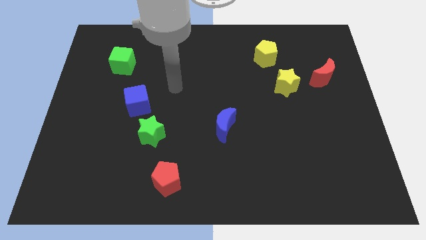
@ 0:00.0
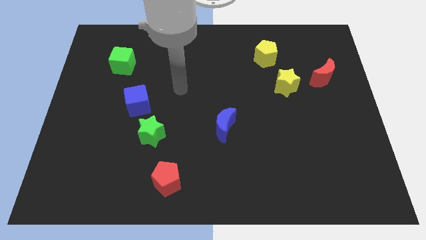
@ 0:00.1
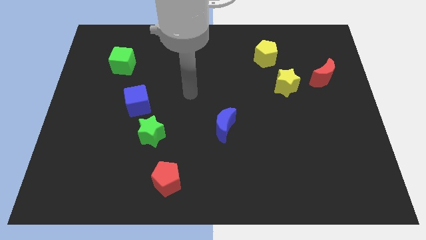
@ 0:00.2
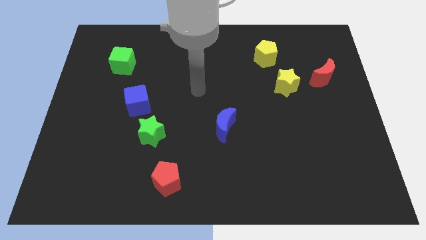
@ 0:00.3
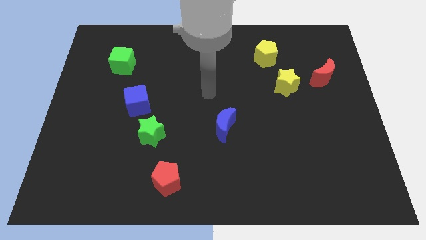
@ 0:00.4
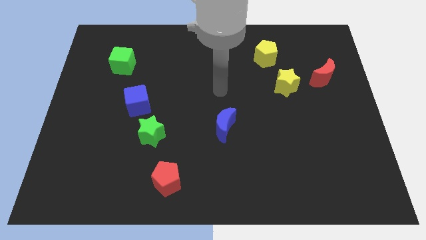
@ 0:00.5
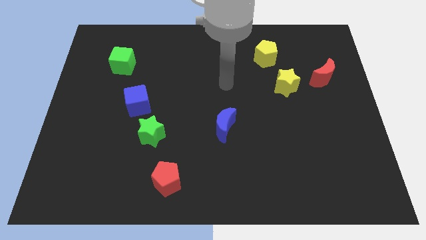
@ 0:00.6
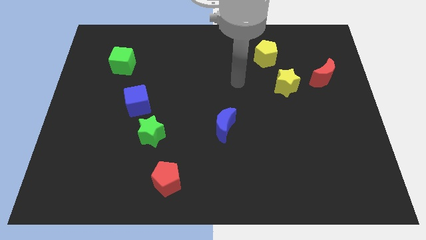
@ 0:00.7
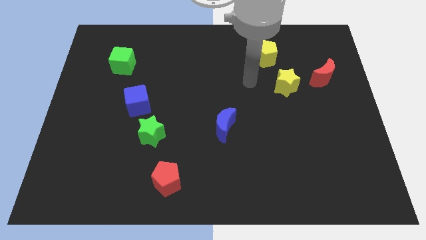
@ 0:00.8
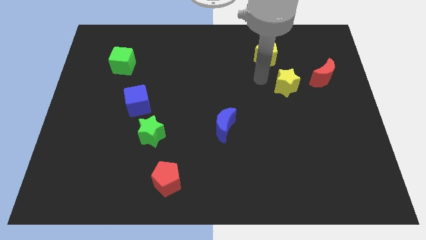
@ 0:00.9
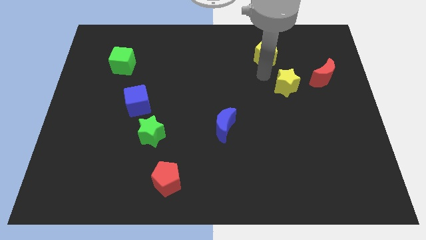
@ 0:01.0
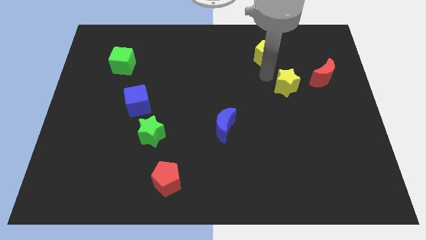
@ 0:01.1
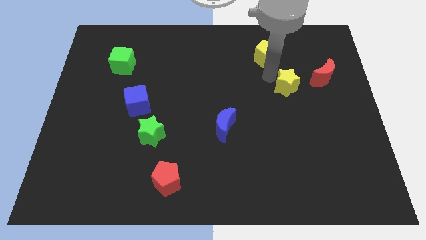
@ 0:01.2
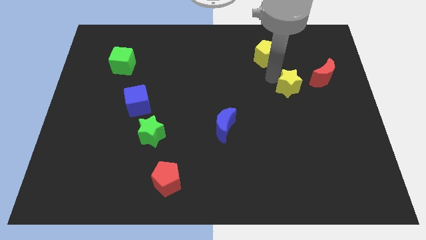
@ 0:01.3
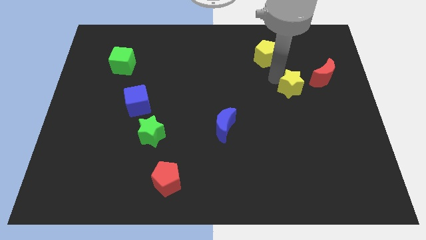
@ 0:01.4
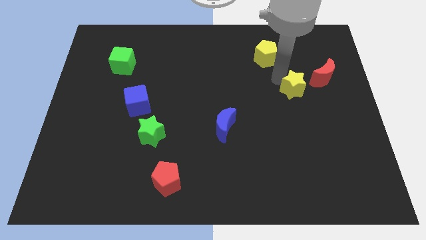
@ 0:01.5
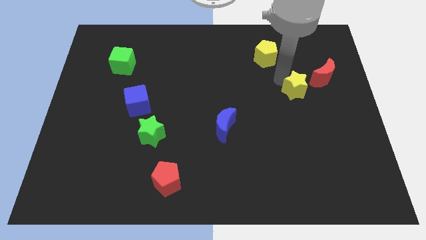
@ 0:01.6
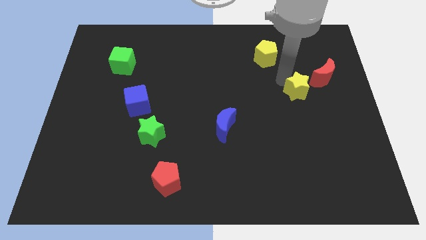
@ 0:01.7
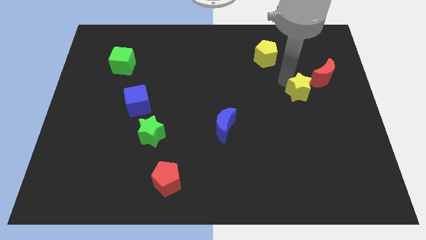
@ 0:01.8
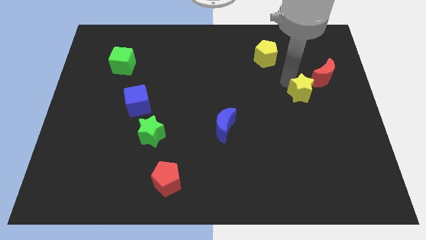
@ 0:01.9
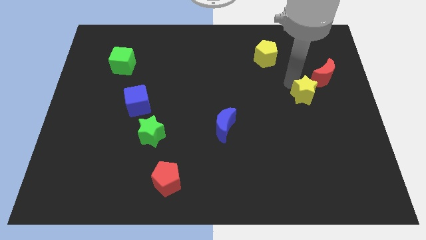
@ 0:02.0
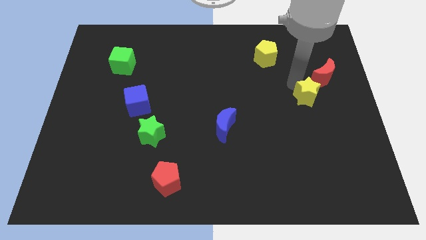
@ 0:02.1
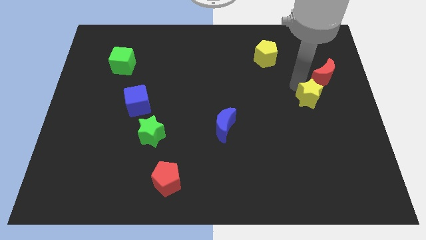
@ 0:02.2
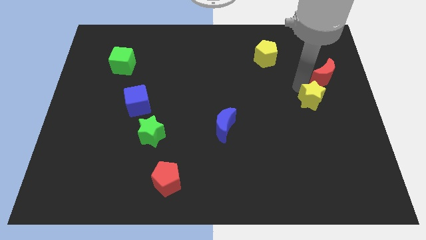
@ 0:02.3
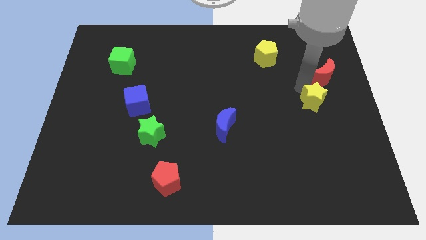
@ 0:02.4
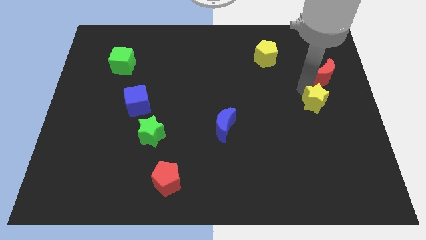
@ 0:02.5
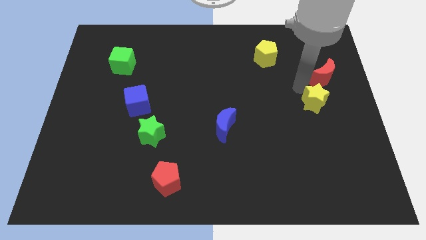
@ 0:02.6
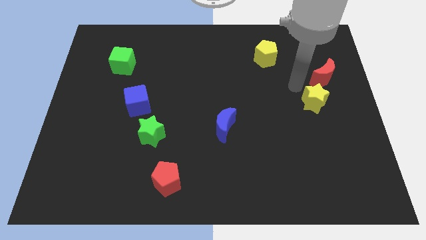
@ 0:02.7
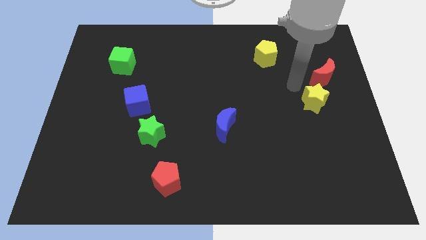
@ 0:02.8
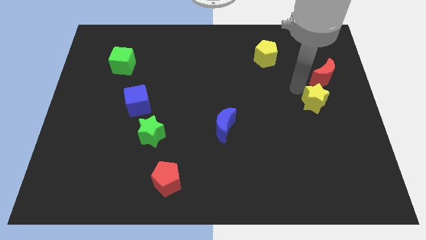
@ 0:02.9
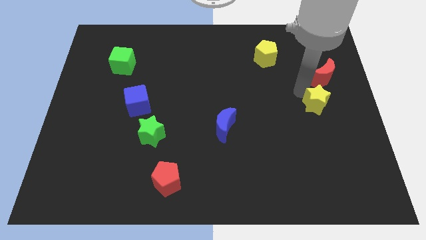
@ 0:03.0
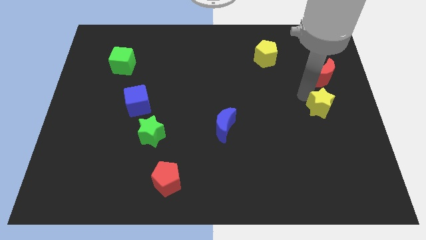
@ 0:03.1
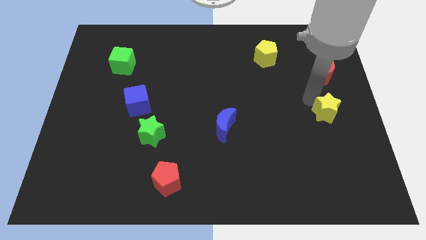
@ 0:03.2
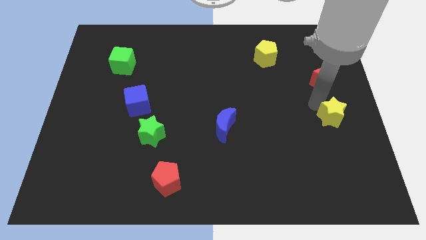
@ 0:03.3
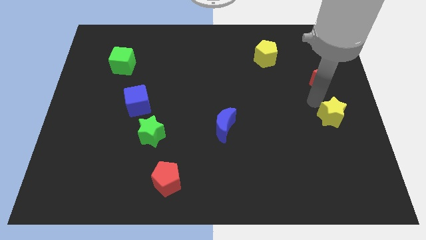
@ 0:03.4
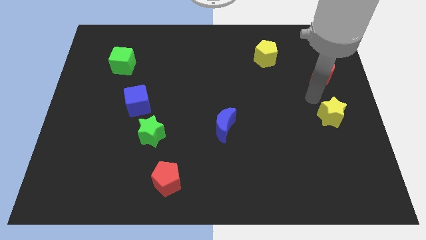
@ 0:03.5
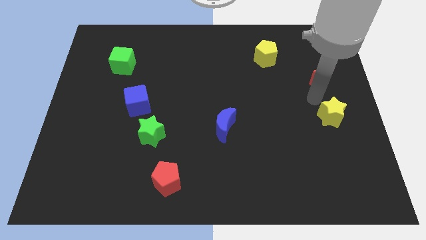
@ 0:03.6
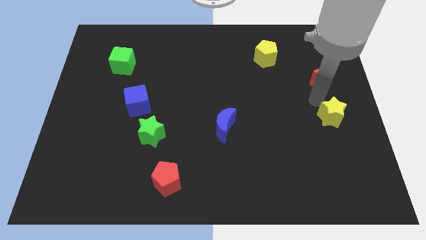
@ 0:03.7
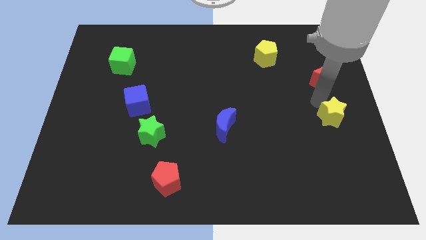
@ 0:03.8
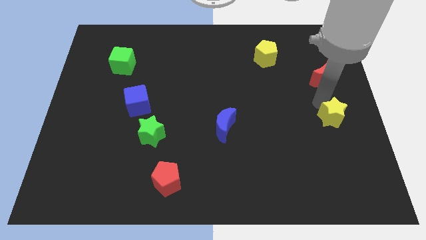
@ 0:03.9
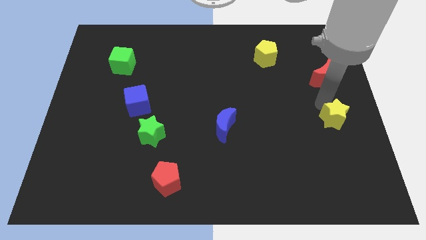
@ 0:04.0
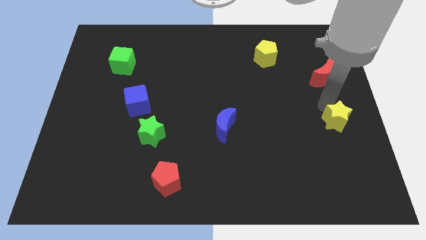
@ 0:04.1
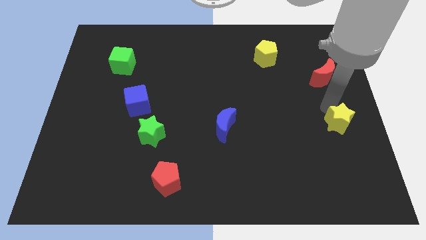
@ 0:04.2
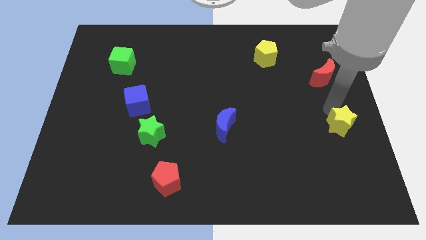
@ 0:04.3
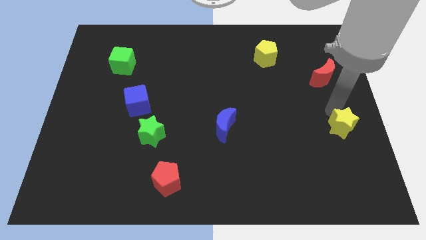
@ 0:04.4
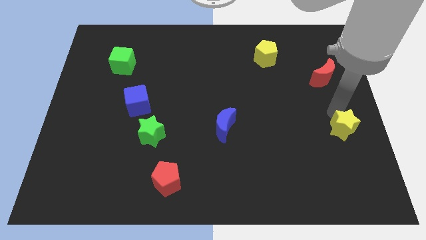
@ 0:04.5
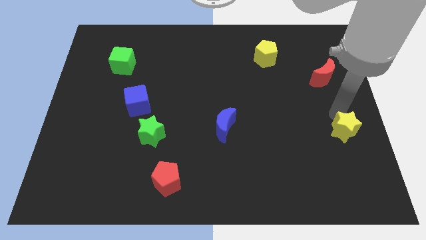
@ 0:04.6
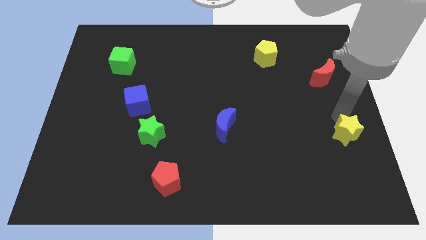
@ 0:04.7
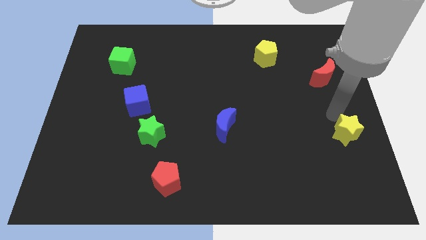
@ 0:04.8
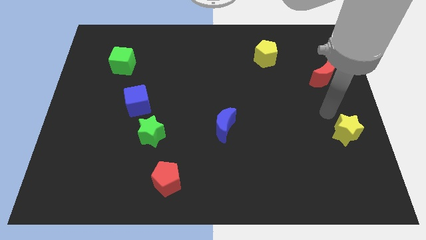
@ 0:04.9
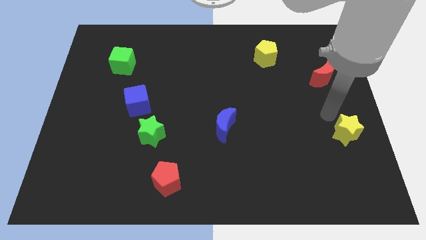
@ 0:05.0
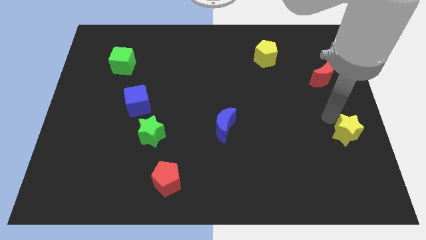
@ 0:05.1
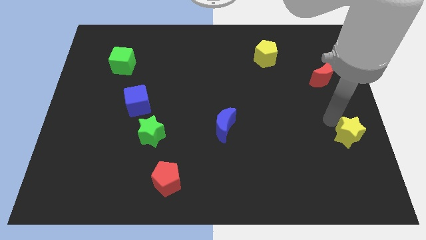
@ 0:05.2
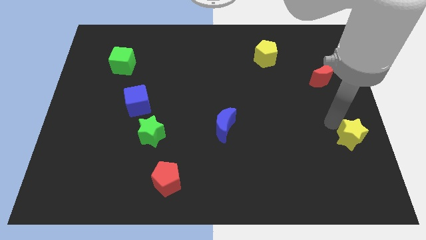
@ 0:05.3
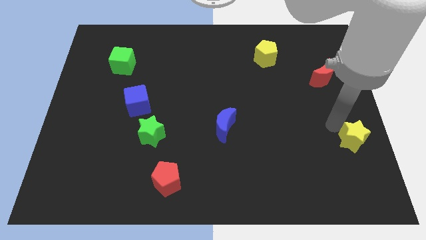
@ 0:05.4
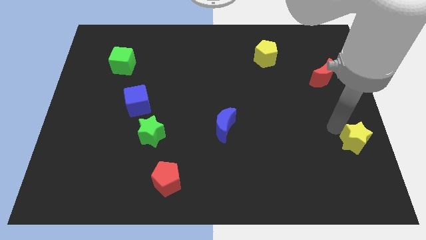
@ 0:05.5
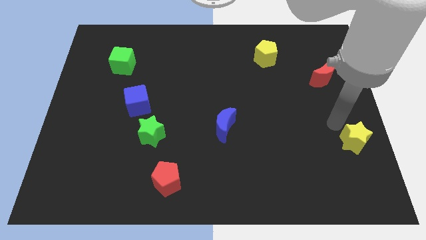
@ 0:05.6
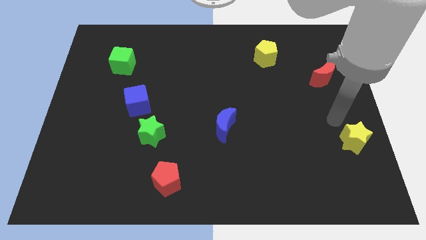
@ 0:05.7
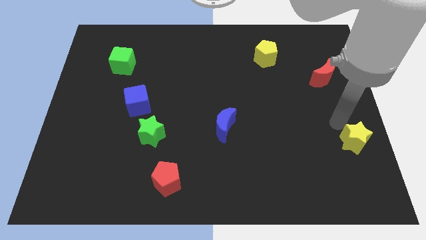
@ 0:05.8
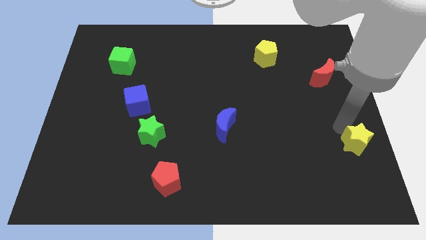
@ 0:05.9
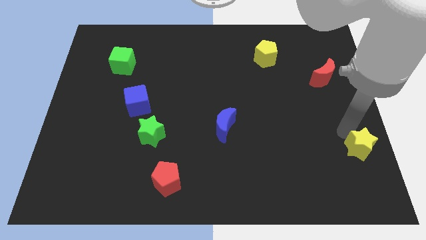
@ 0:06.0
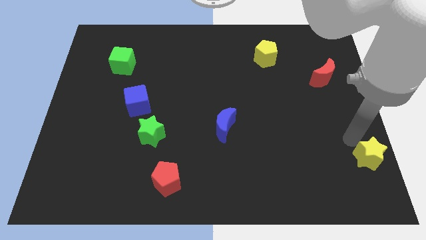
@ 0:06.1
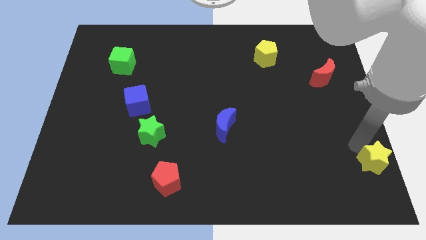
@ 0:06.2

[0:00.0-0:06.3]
push the yellow star to the bottom right corner
